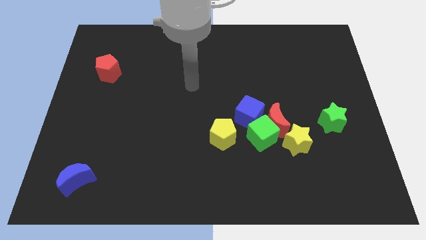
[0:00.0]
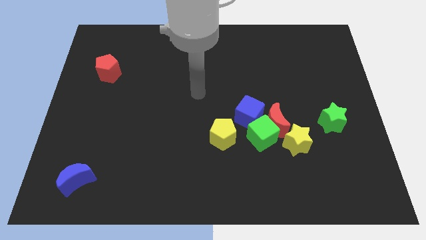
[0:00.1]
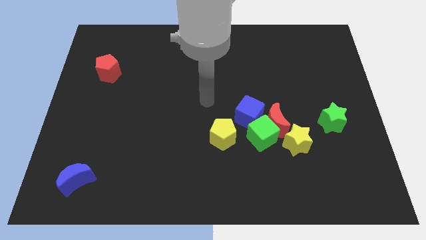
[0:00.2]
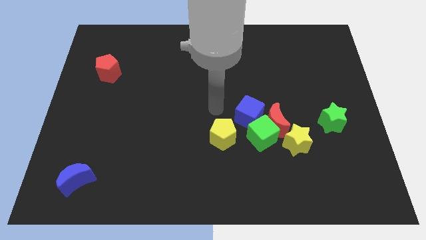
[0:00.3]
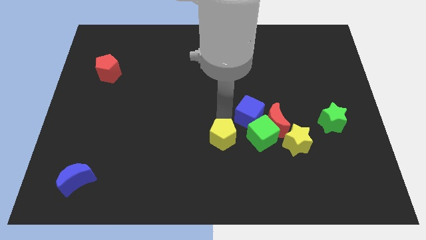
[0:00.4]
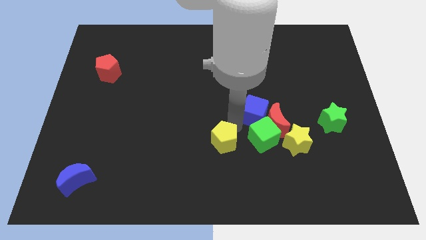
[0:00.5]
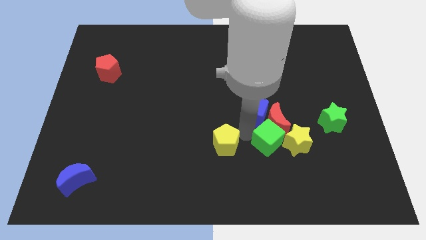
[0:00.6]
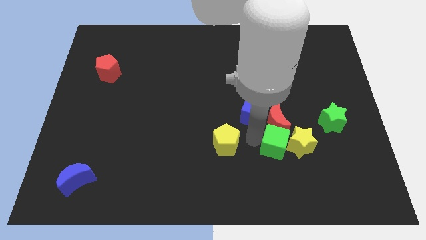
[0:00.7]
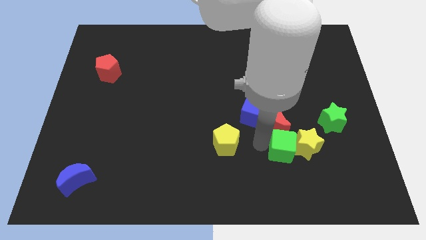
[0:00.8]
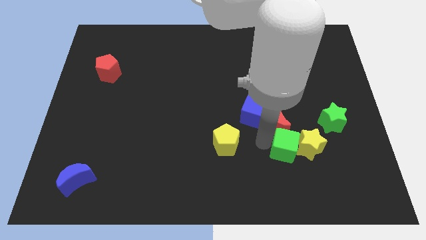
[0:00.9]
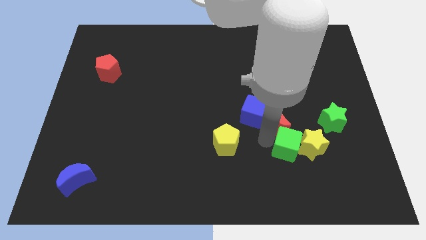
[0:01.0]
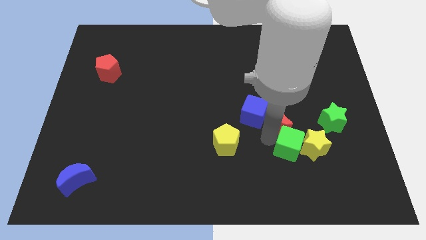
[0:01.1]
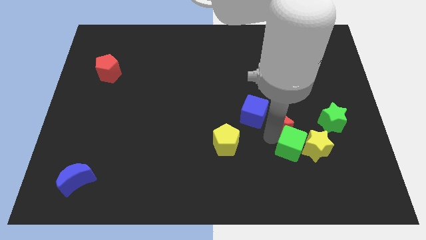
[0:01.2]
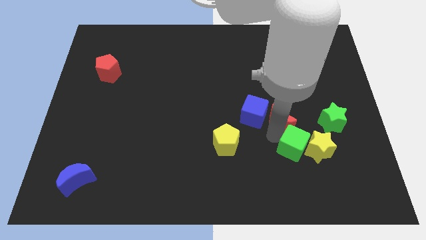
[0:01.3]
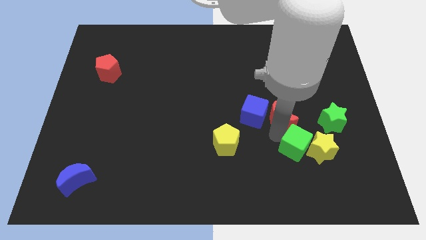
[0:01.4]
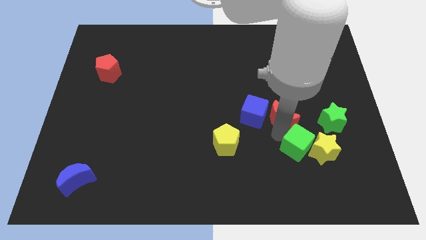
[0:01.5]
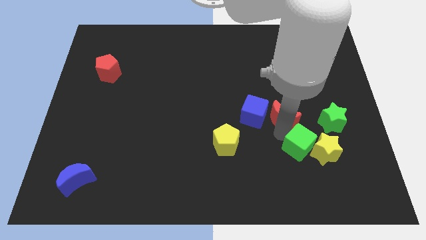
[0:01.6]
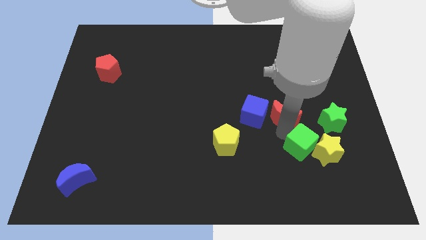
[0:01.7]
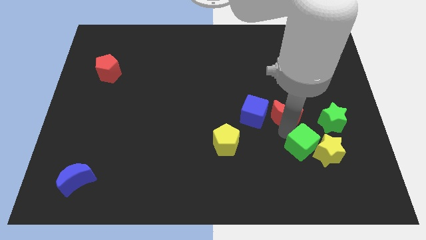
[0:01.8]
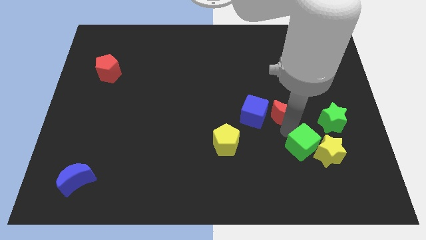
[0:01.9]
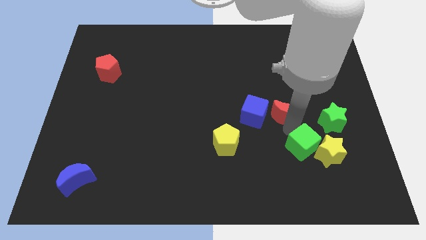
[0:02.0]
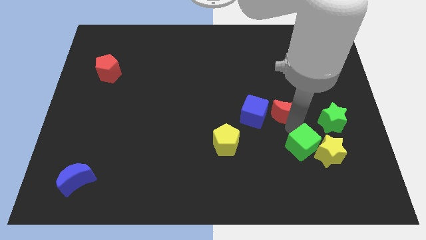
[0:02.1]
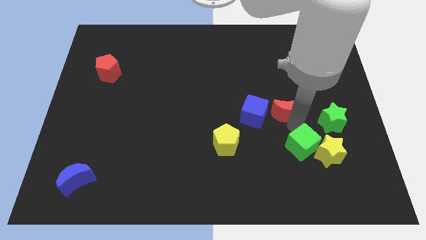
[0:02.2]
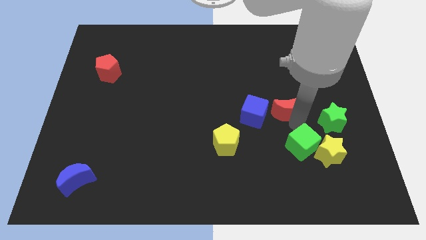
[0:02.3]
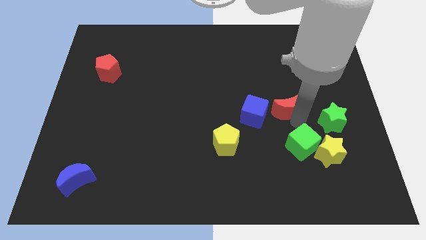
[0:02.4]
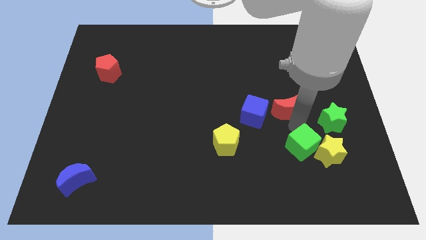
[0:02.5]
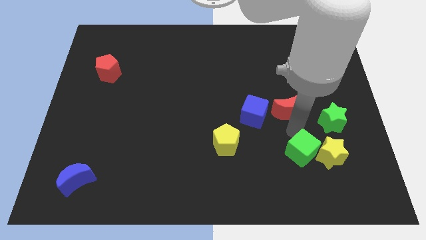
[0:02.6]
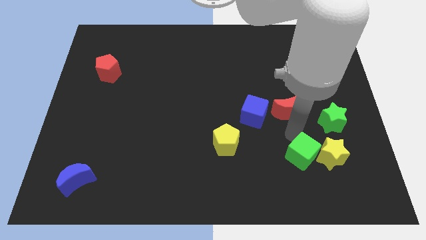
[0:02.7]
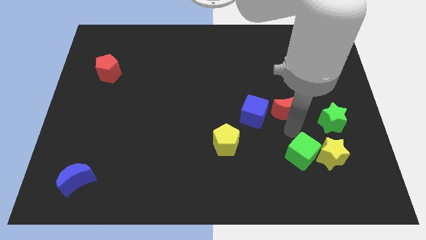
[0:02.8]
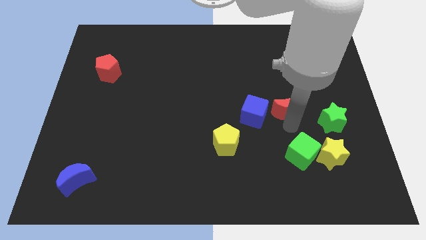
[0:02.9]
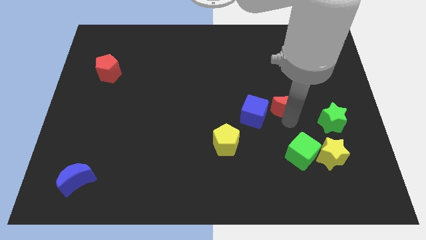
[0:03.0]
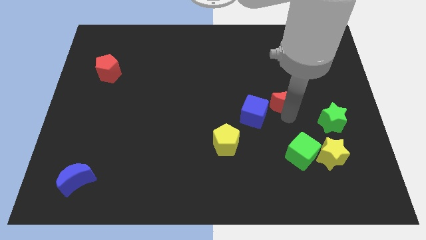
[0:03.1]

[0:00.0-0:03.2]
separate the red moon from the green cube, blue cube, and yellow star

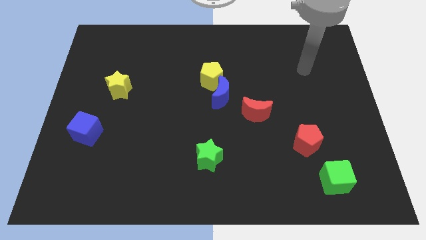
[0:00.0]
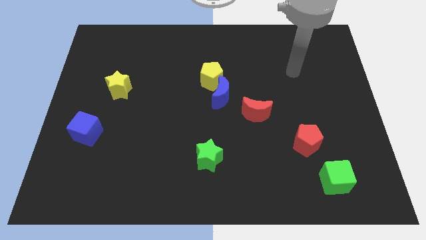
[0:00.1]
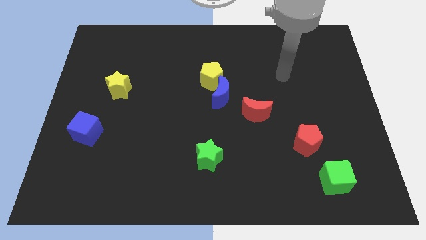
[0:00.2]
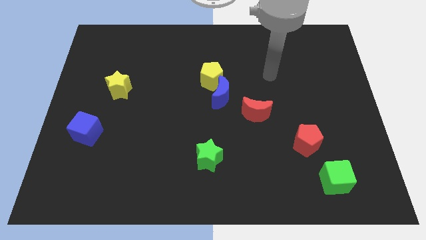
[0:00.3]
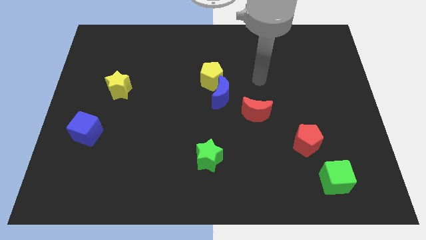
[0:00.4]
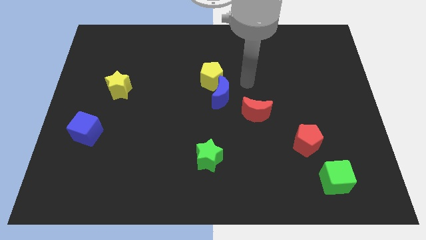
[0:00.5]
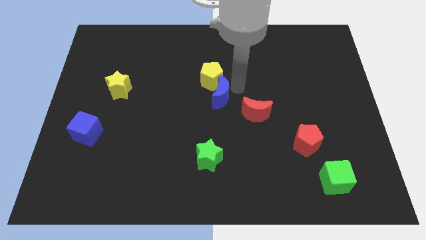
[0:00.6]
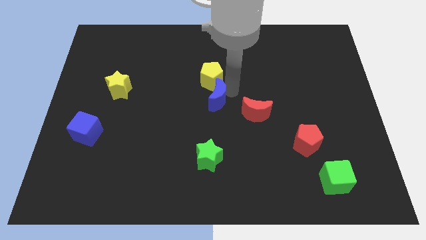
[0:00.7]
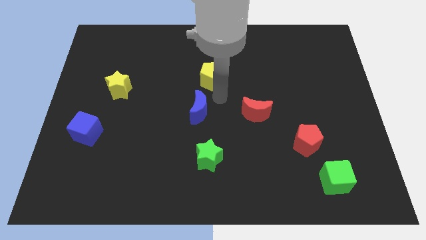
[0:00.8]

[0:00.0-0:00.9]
move the yellow pentagon away from the blue moon

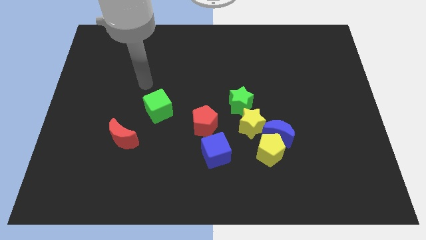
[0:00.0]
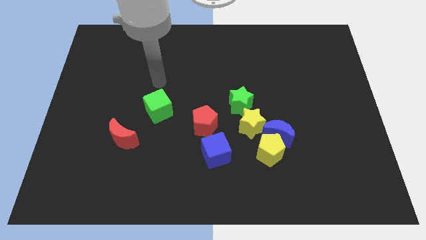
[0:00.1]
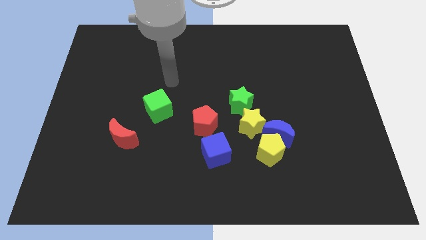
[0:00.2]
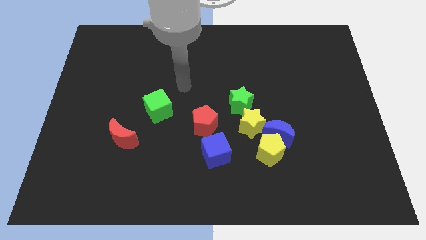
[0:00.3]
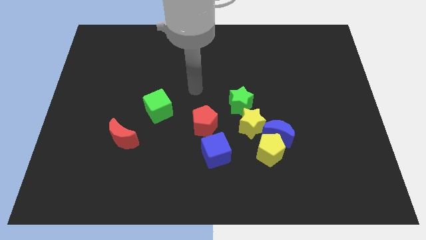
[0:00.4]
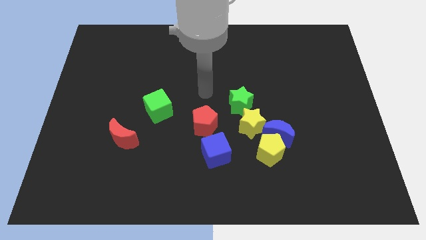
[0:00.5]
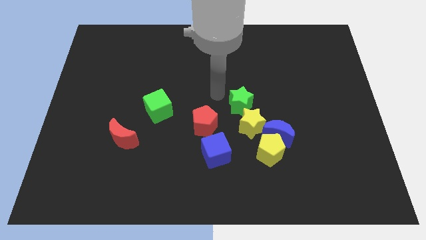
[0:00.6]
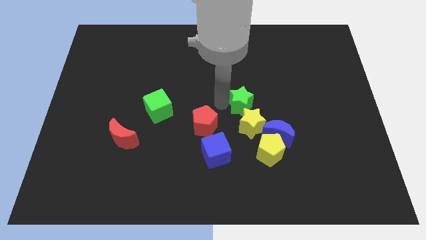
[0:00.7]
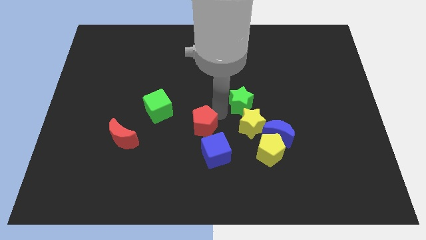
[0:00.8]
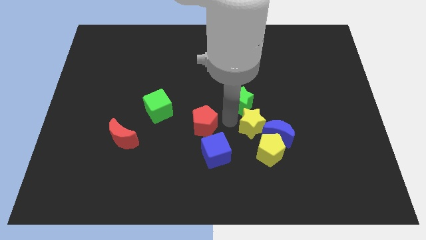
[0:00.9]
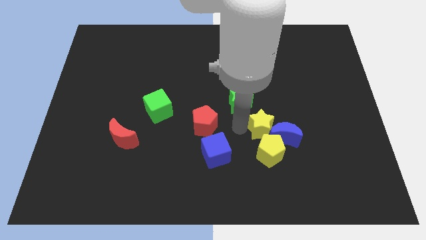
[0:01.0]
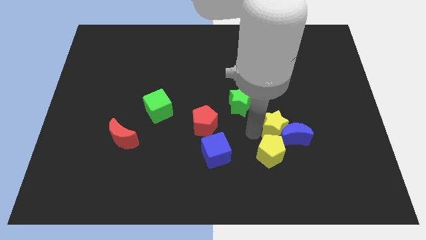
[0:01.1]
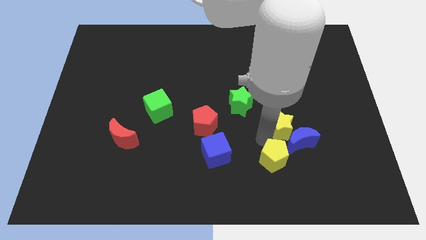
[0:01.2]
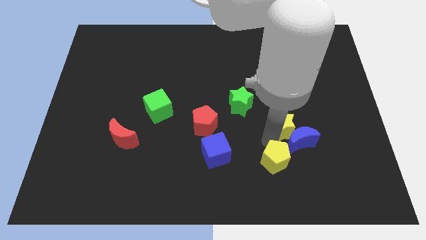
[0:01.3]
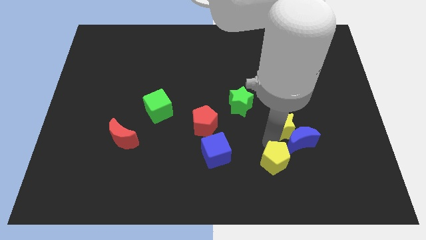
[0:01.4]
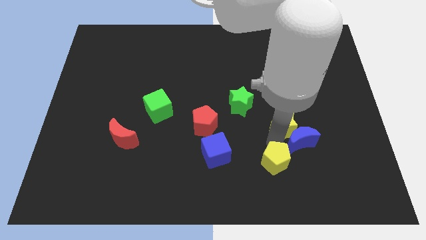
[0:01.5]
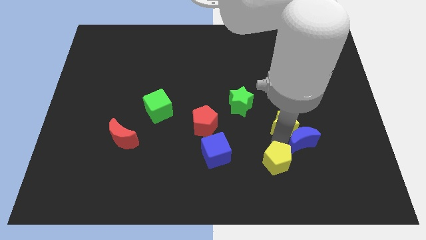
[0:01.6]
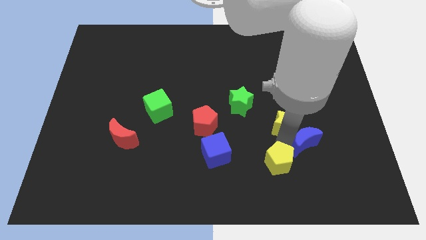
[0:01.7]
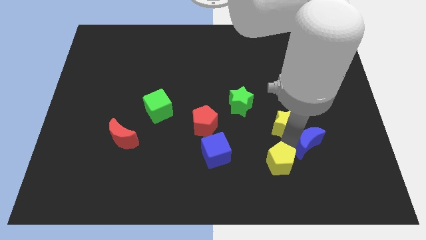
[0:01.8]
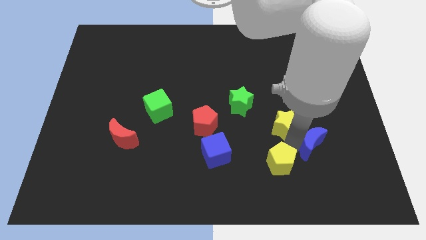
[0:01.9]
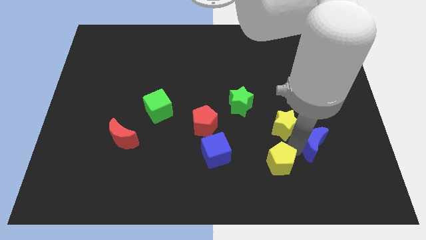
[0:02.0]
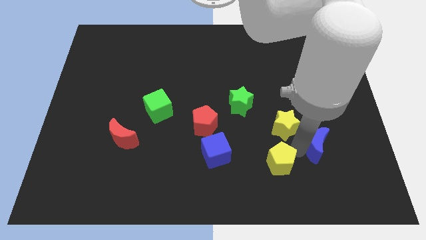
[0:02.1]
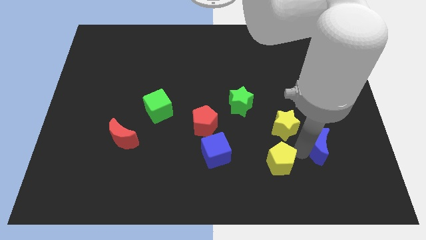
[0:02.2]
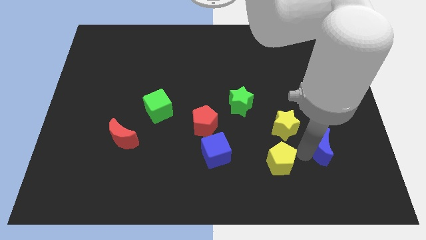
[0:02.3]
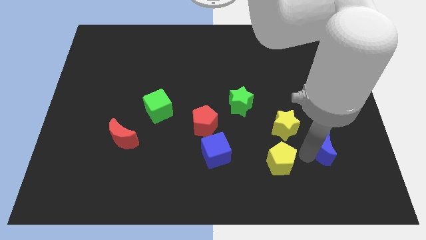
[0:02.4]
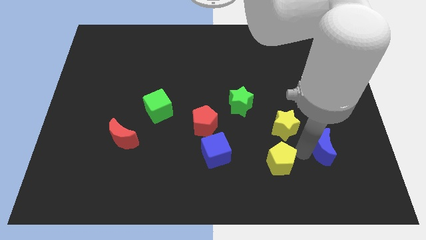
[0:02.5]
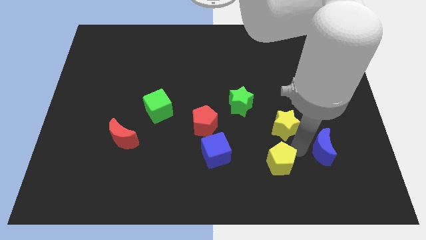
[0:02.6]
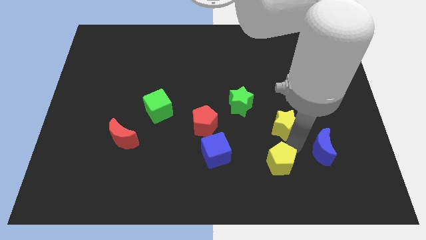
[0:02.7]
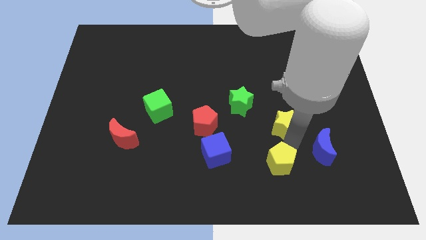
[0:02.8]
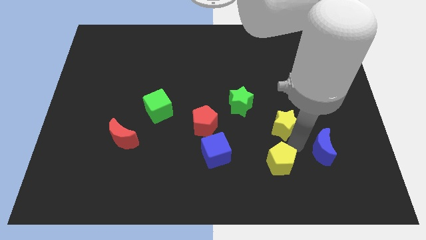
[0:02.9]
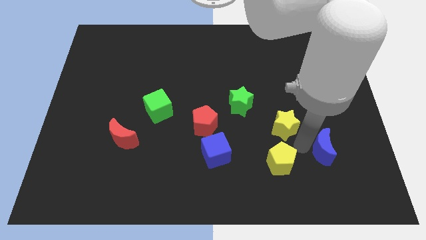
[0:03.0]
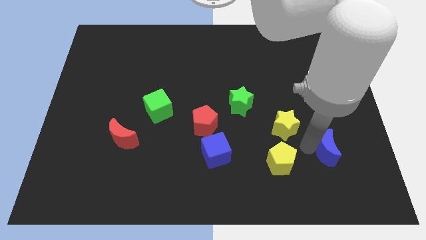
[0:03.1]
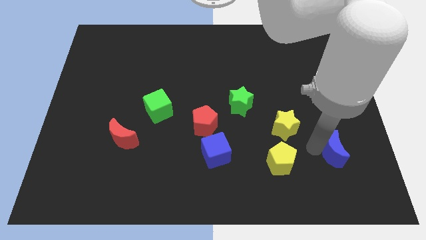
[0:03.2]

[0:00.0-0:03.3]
separate the blue moon from the yellow pentagon and yellow star

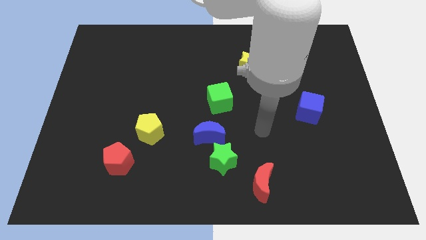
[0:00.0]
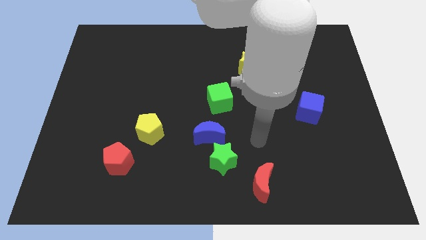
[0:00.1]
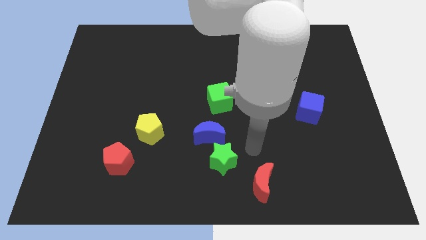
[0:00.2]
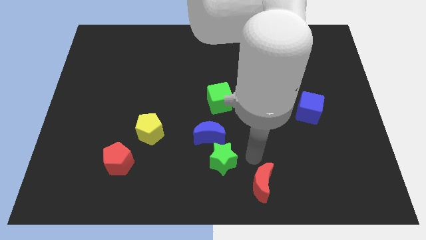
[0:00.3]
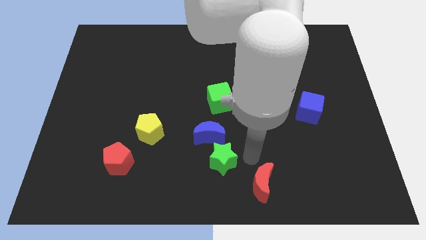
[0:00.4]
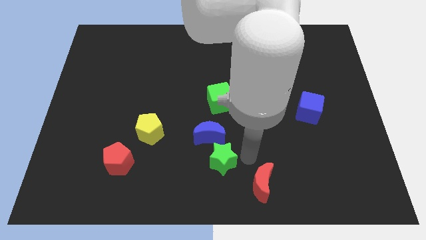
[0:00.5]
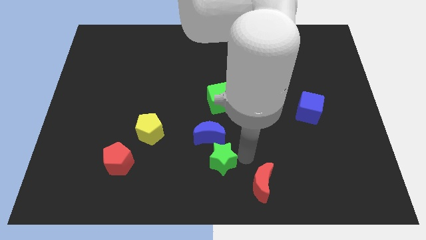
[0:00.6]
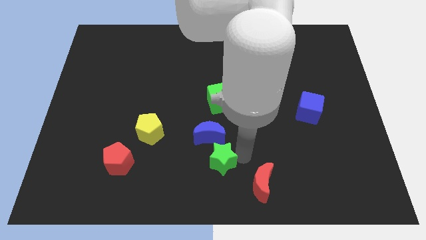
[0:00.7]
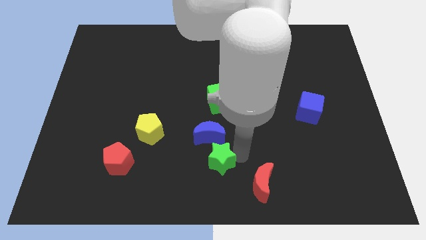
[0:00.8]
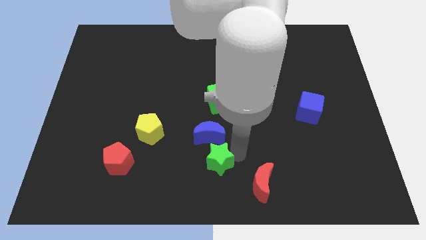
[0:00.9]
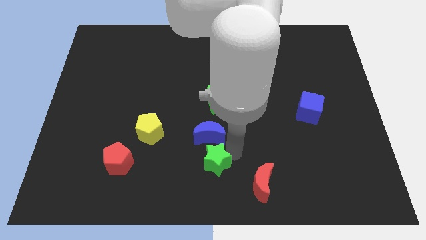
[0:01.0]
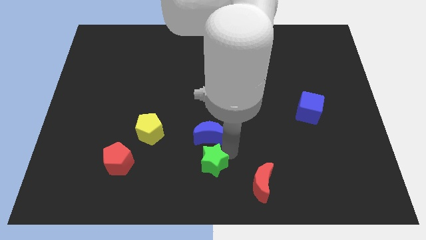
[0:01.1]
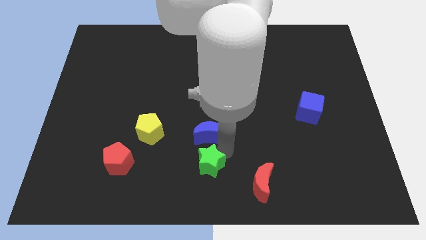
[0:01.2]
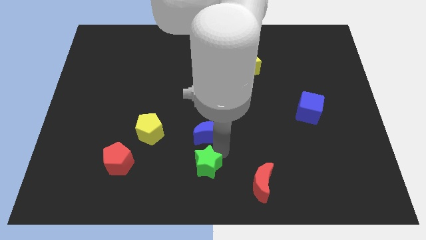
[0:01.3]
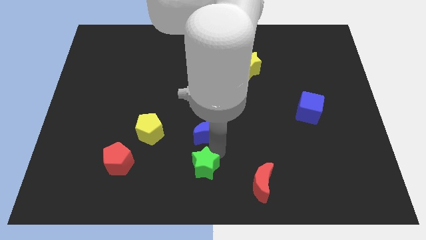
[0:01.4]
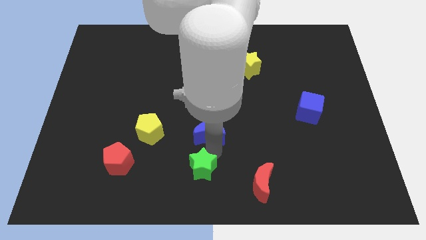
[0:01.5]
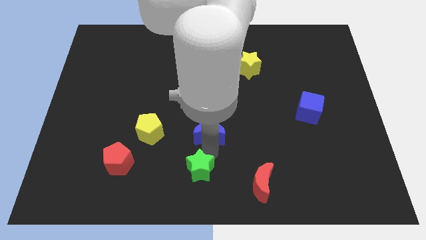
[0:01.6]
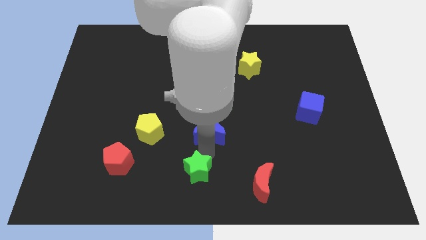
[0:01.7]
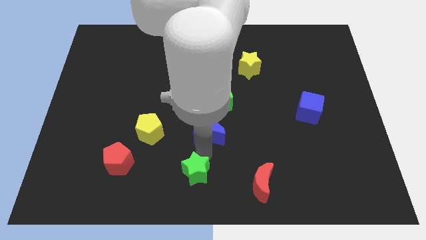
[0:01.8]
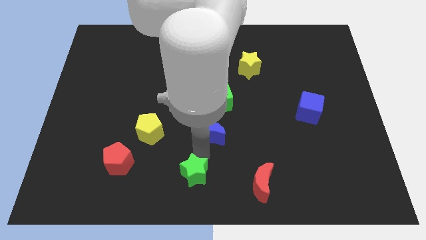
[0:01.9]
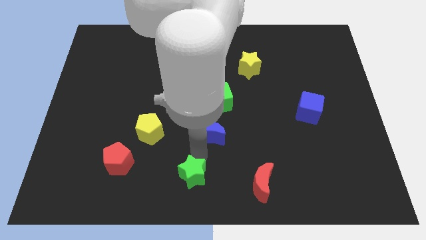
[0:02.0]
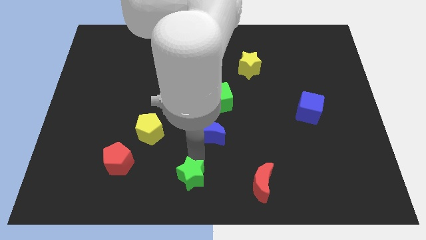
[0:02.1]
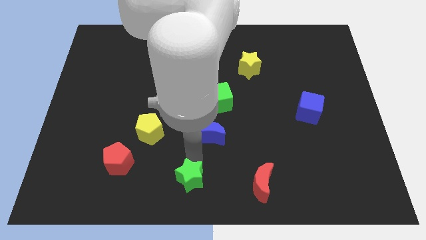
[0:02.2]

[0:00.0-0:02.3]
move the green star away from the blue moon and red moon
